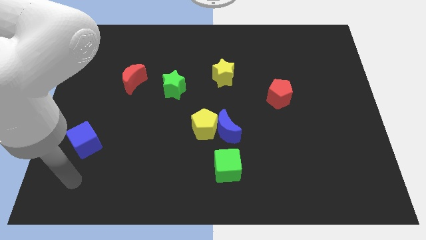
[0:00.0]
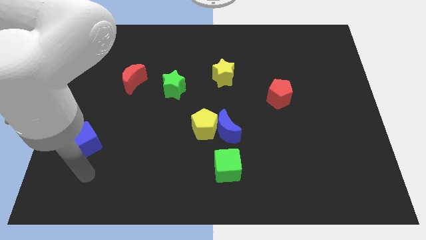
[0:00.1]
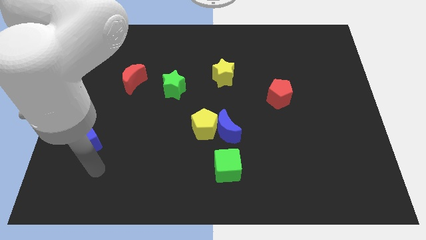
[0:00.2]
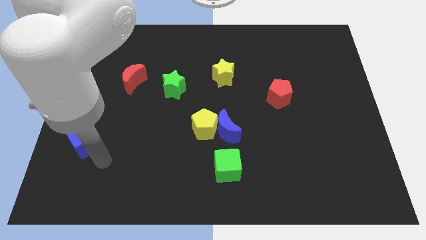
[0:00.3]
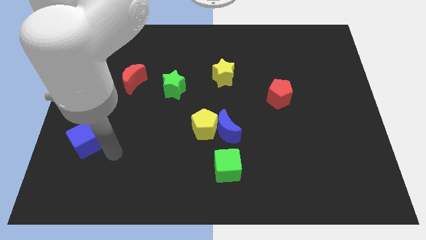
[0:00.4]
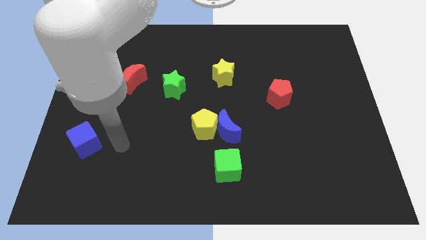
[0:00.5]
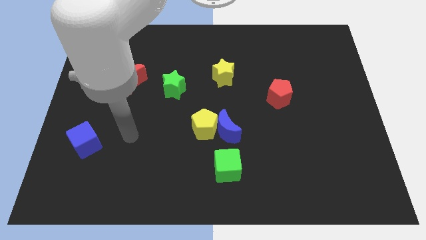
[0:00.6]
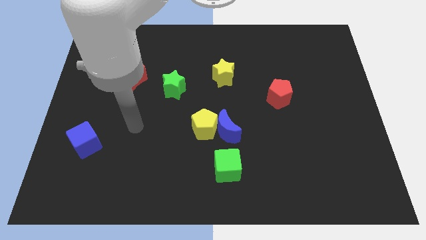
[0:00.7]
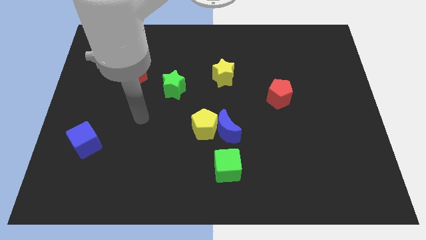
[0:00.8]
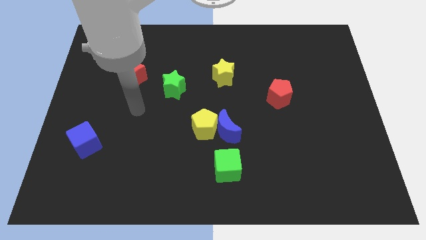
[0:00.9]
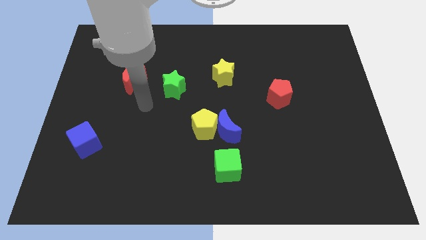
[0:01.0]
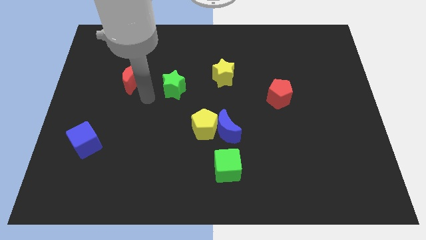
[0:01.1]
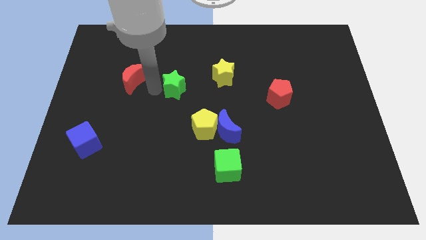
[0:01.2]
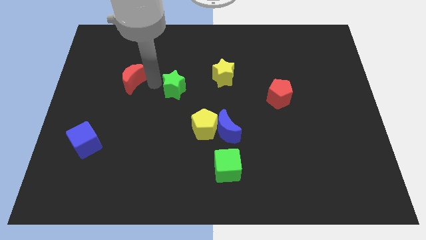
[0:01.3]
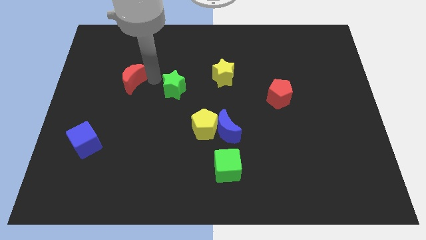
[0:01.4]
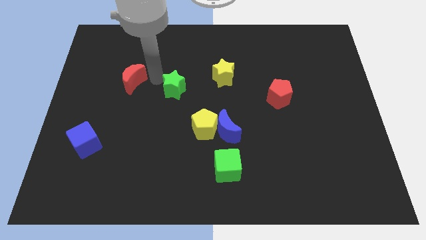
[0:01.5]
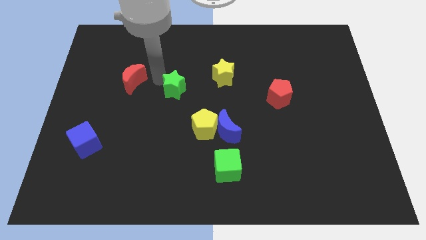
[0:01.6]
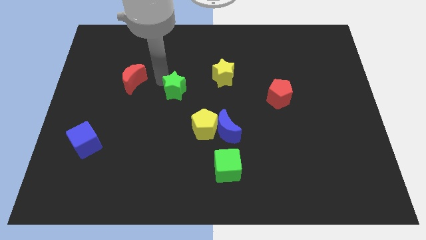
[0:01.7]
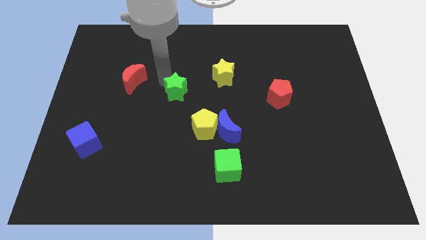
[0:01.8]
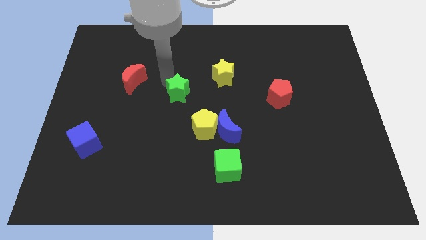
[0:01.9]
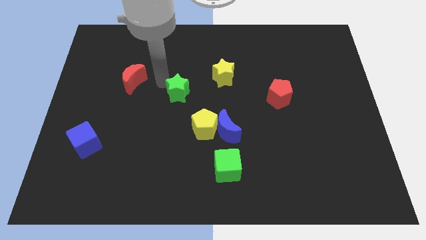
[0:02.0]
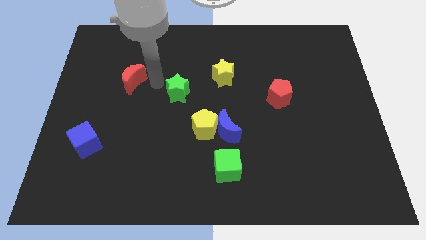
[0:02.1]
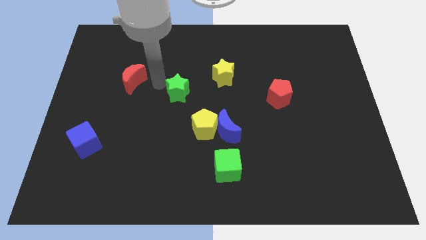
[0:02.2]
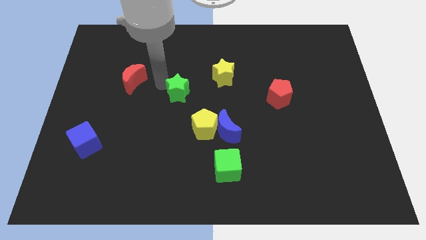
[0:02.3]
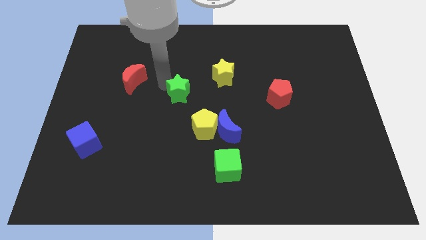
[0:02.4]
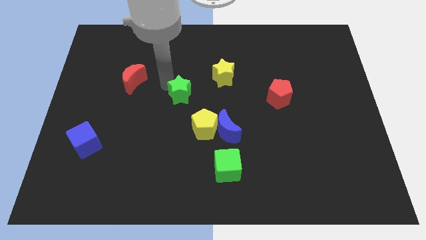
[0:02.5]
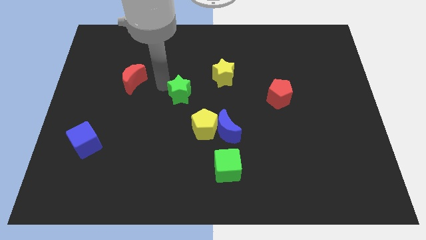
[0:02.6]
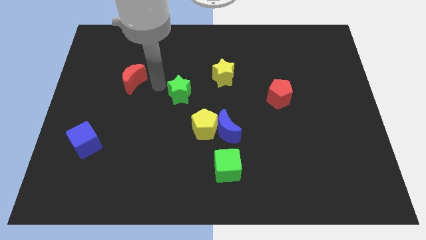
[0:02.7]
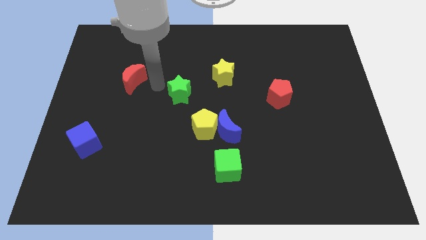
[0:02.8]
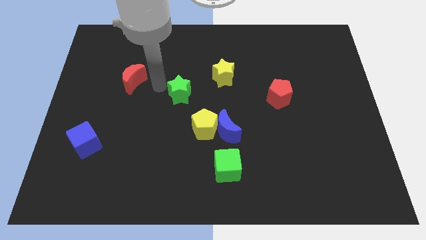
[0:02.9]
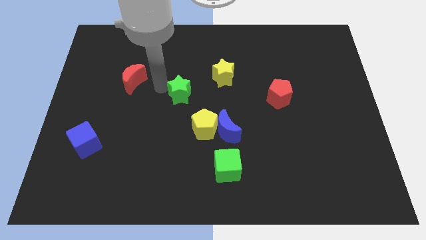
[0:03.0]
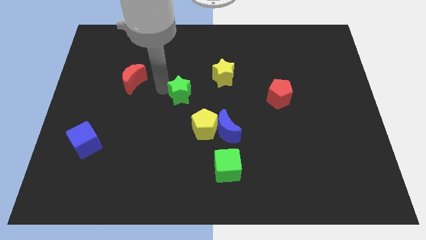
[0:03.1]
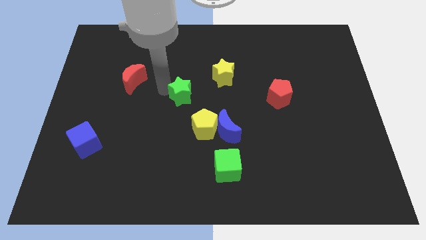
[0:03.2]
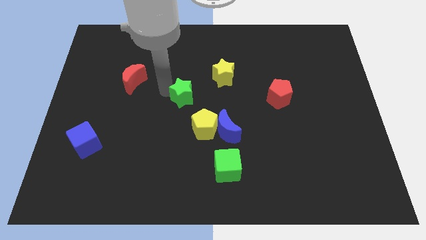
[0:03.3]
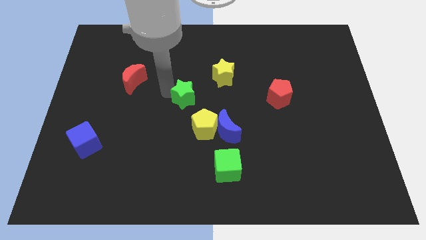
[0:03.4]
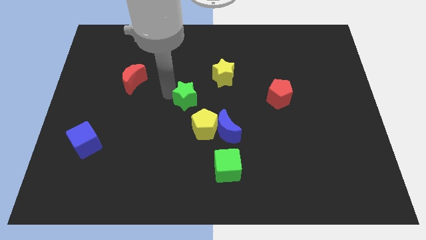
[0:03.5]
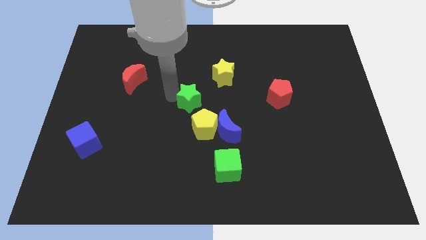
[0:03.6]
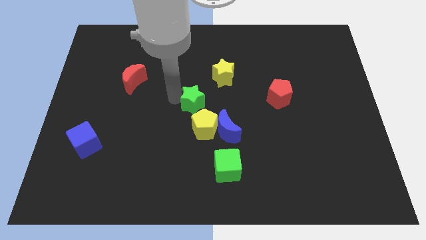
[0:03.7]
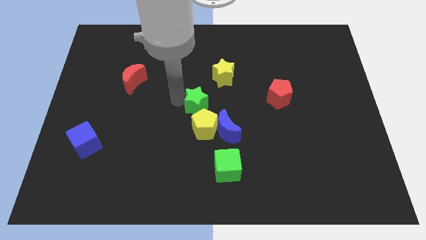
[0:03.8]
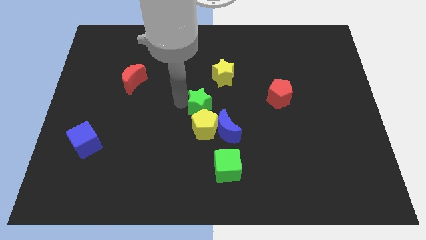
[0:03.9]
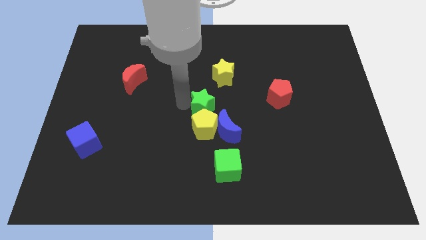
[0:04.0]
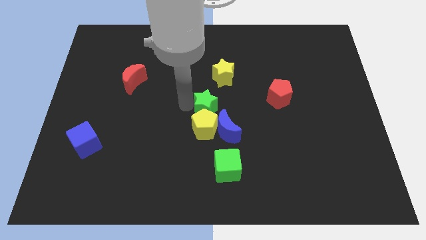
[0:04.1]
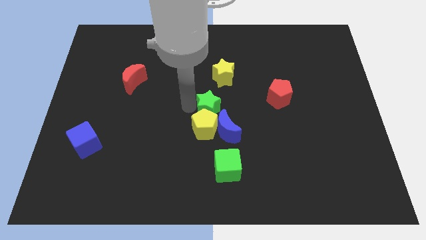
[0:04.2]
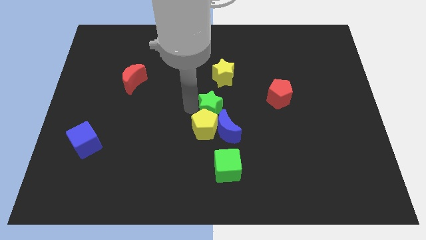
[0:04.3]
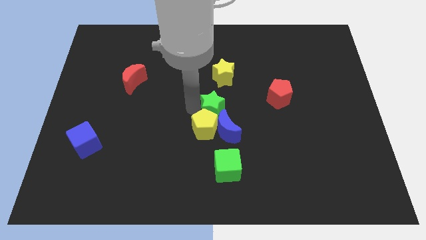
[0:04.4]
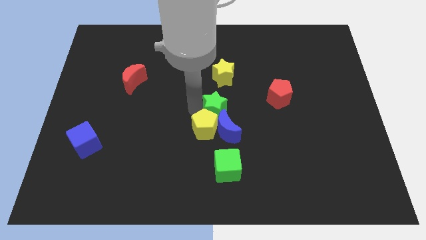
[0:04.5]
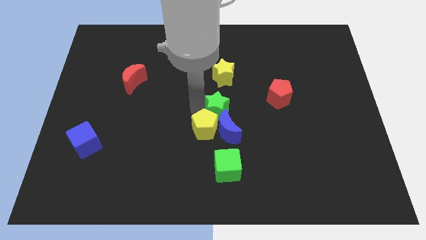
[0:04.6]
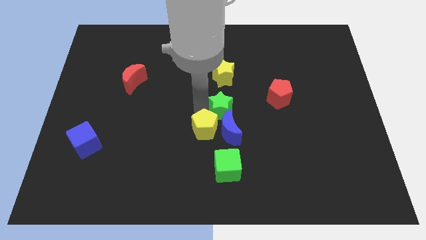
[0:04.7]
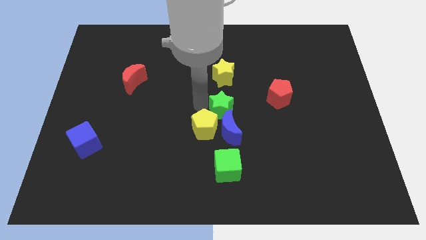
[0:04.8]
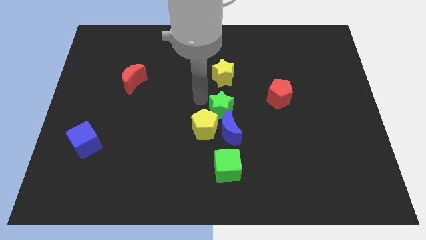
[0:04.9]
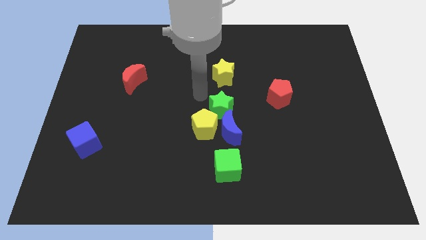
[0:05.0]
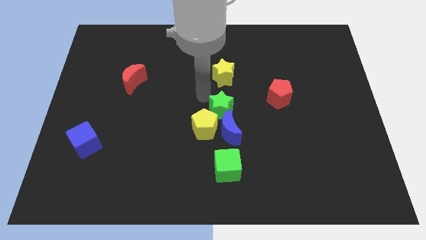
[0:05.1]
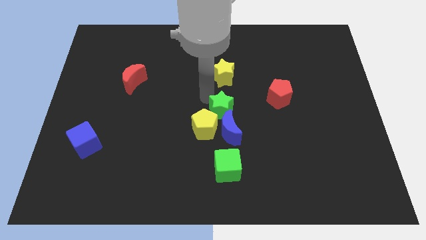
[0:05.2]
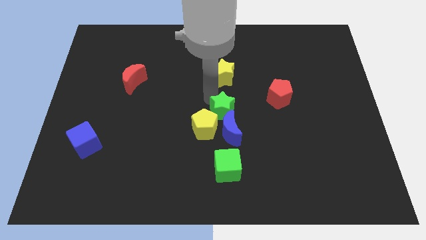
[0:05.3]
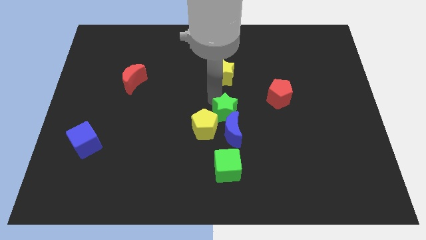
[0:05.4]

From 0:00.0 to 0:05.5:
push the green star right of the yellow pentagon

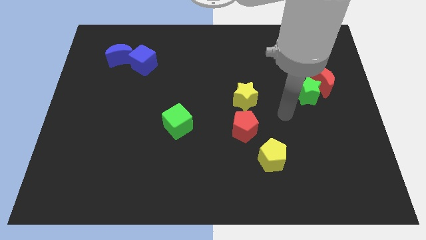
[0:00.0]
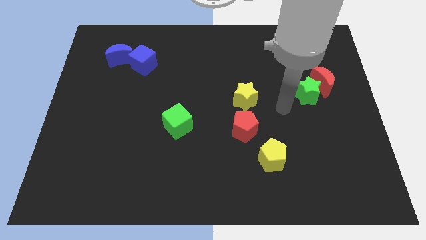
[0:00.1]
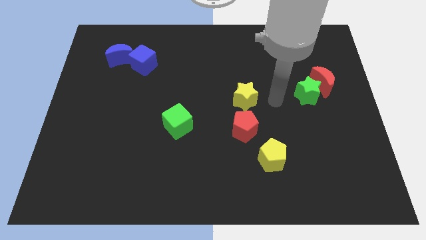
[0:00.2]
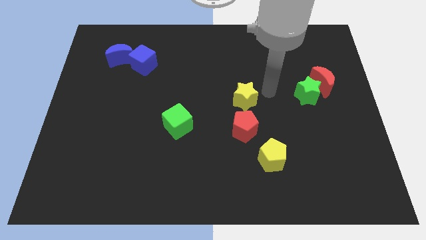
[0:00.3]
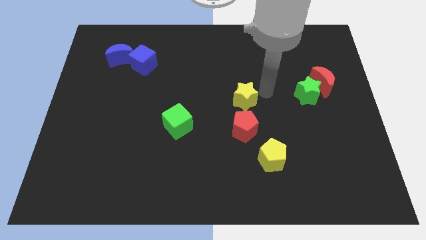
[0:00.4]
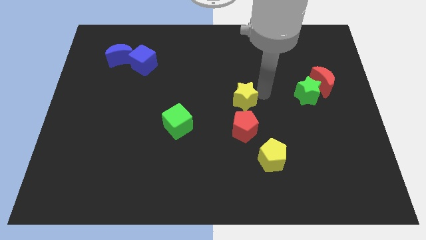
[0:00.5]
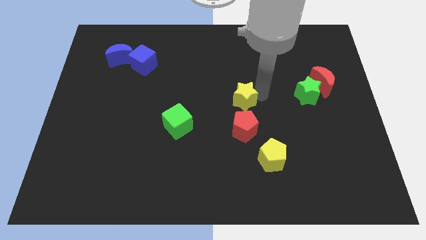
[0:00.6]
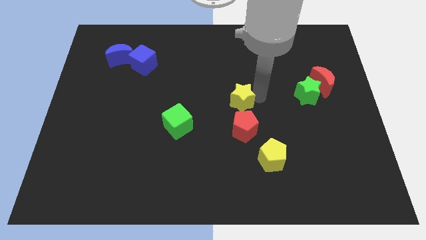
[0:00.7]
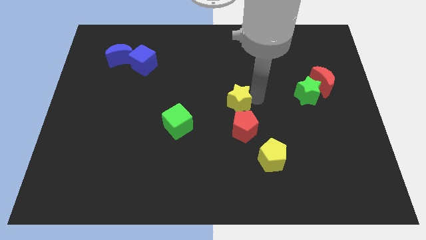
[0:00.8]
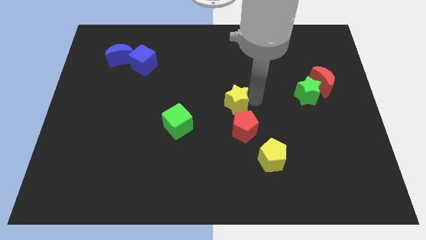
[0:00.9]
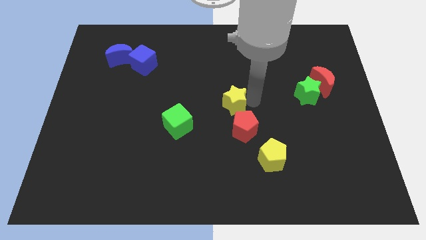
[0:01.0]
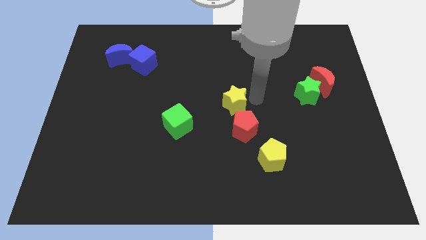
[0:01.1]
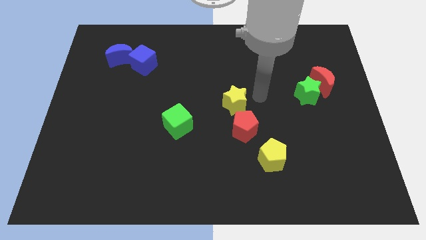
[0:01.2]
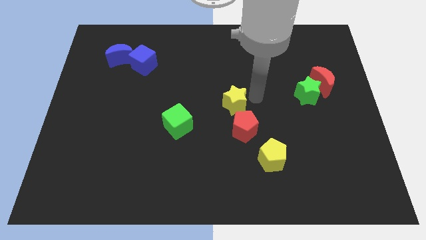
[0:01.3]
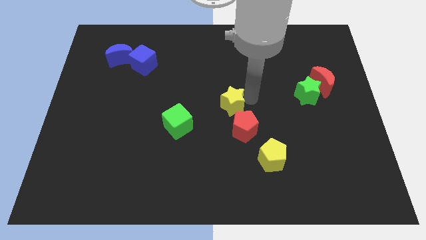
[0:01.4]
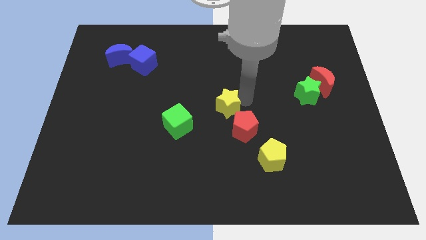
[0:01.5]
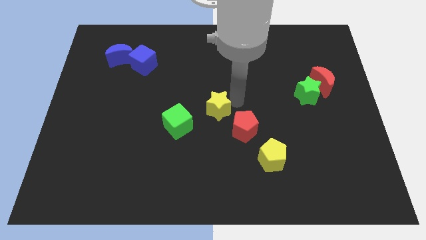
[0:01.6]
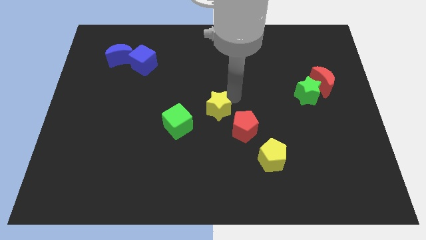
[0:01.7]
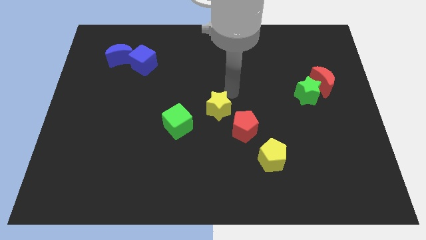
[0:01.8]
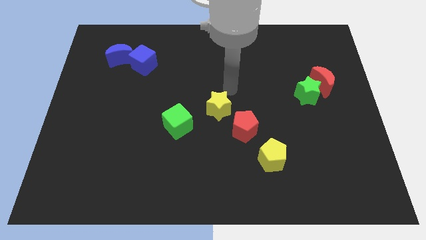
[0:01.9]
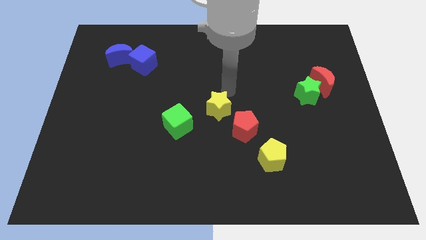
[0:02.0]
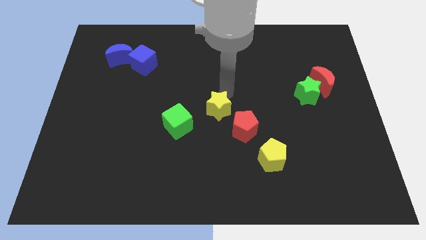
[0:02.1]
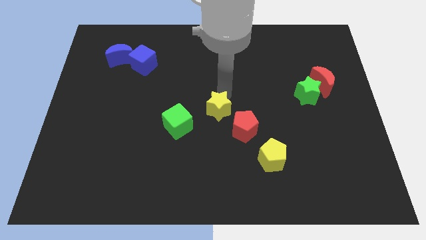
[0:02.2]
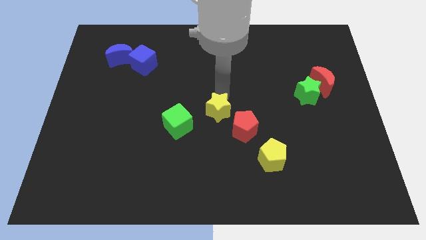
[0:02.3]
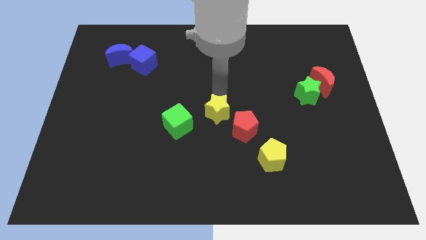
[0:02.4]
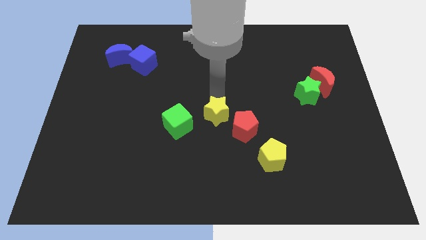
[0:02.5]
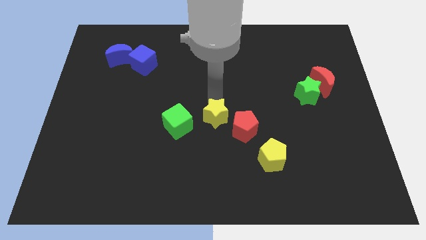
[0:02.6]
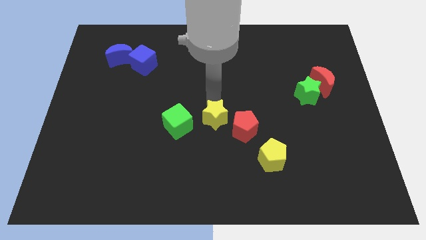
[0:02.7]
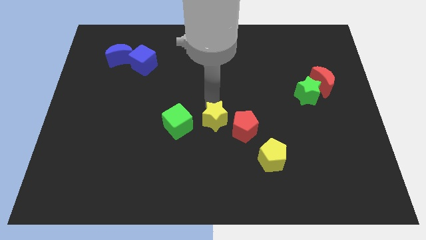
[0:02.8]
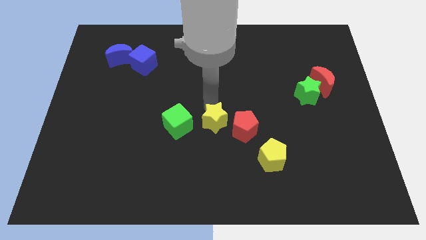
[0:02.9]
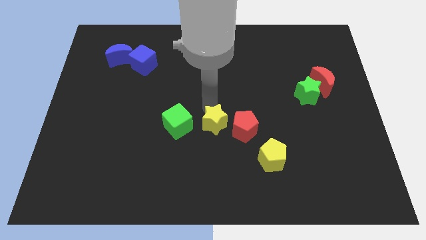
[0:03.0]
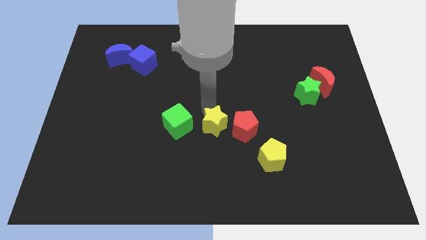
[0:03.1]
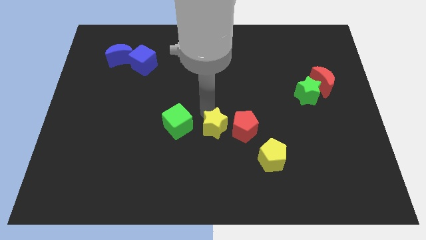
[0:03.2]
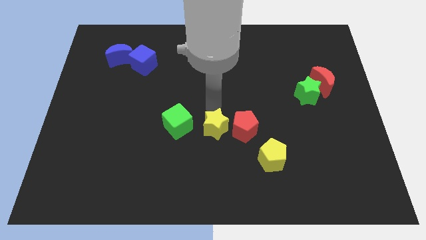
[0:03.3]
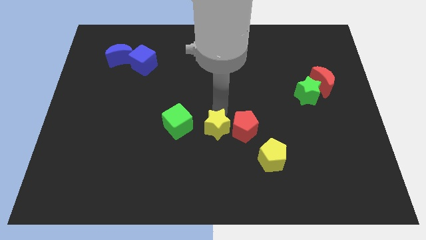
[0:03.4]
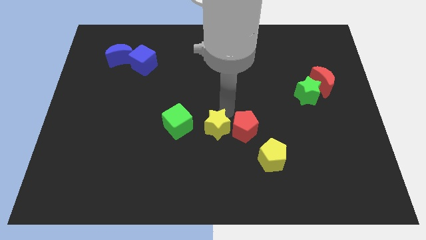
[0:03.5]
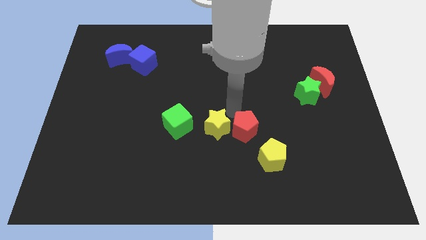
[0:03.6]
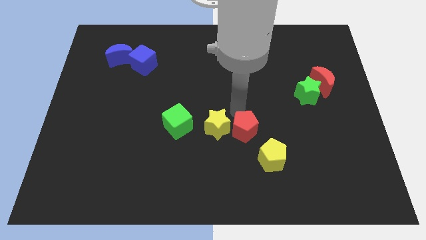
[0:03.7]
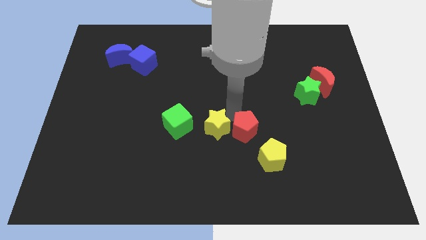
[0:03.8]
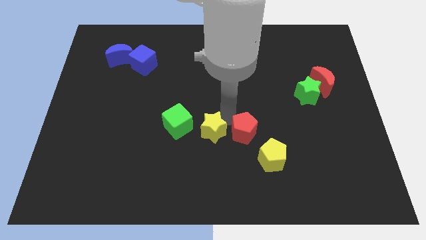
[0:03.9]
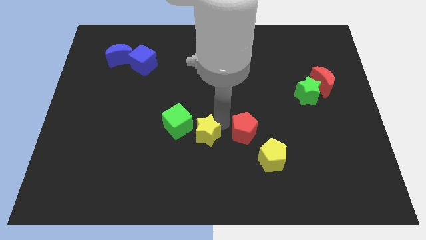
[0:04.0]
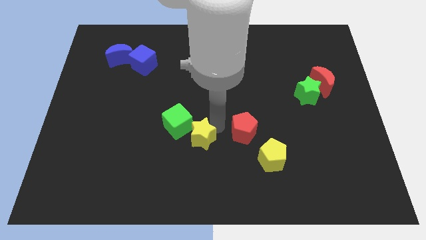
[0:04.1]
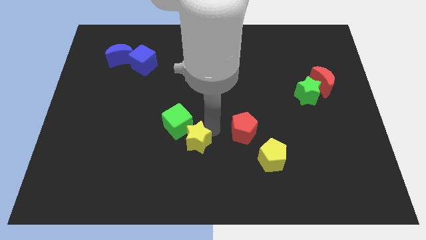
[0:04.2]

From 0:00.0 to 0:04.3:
move the yellow star to the bottom side of the green cube
